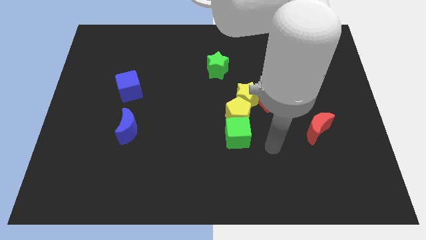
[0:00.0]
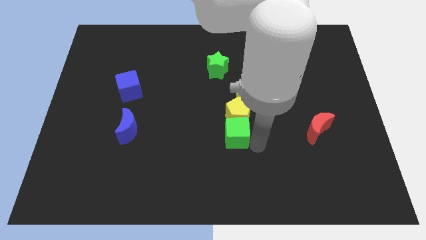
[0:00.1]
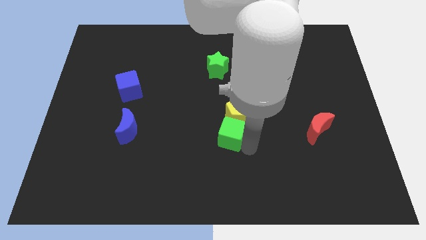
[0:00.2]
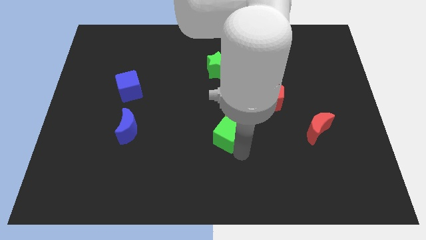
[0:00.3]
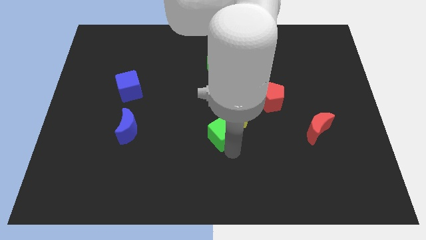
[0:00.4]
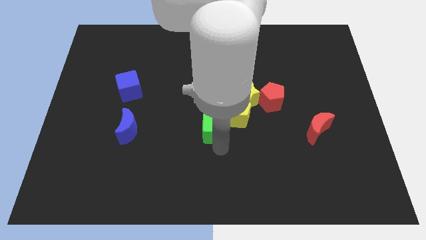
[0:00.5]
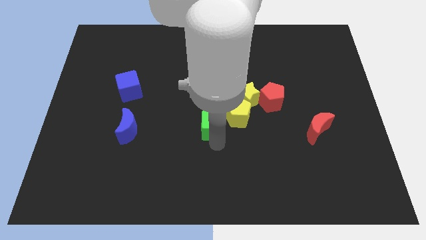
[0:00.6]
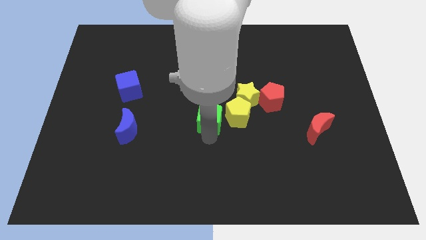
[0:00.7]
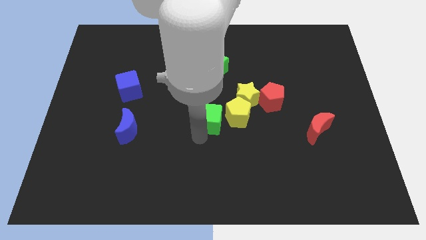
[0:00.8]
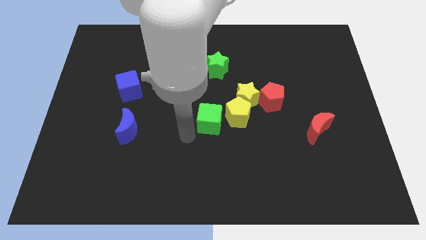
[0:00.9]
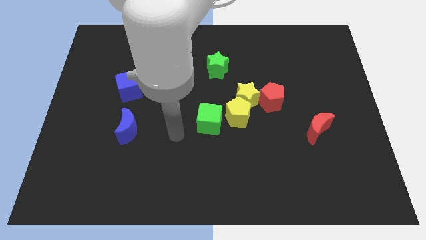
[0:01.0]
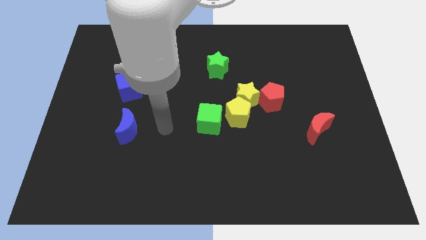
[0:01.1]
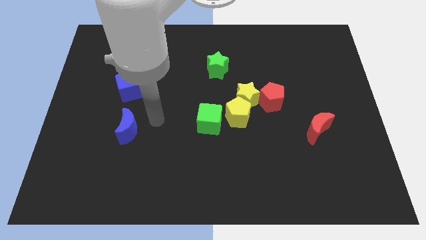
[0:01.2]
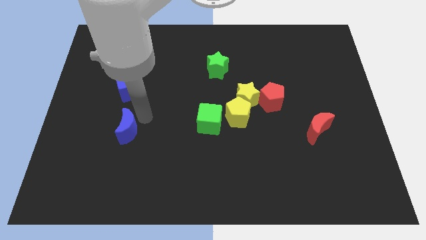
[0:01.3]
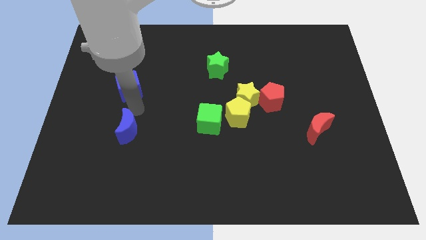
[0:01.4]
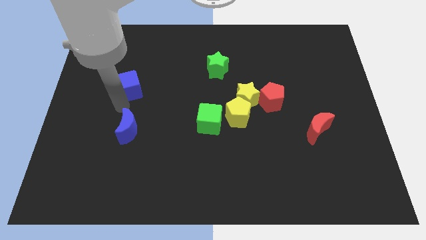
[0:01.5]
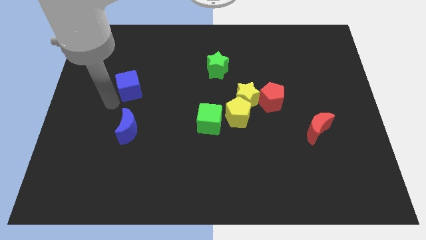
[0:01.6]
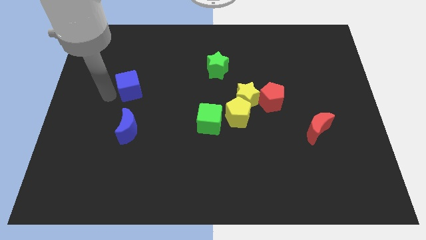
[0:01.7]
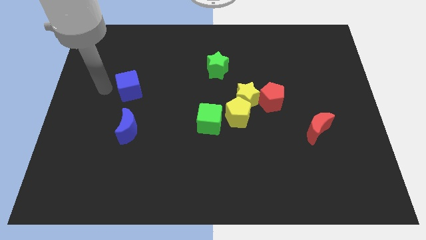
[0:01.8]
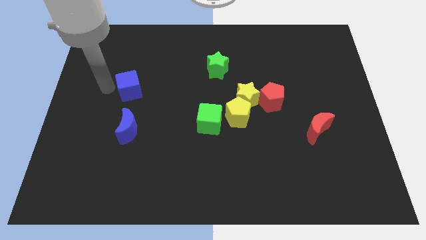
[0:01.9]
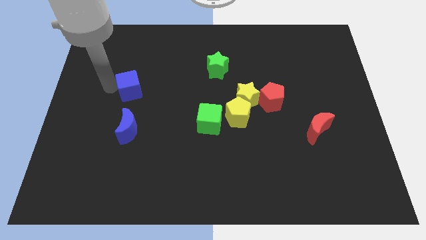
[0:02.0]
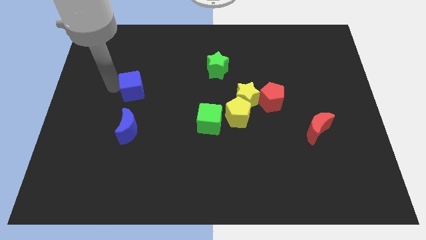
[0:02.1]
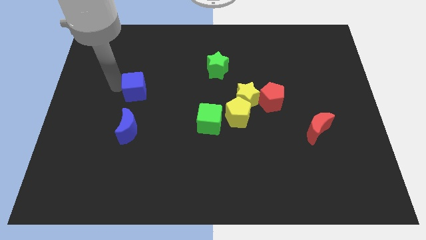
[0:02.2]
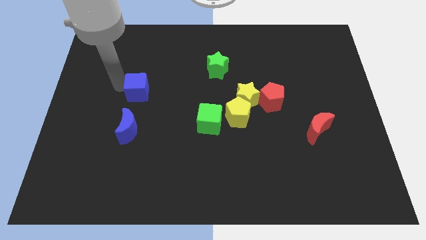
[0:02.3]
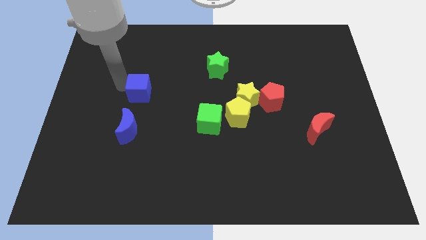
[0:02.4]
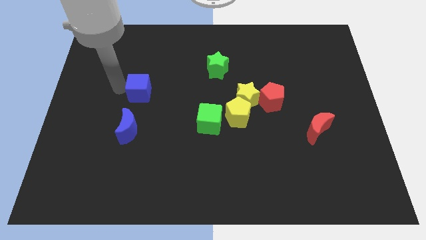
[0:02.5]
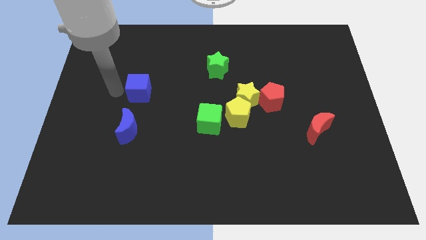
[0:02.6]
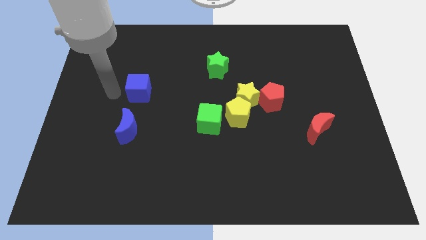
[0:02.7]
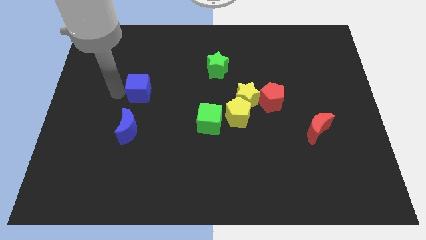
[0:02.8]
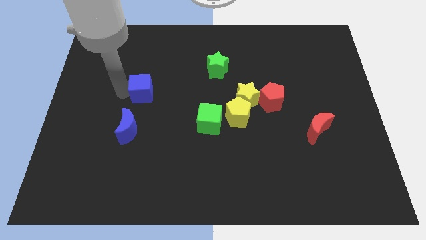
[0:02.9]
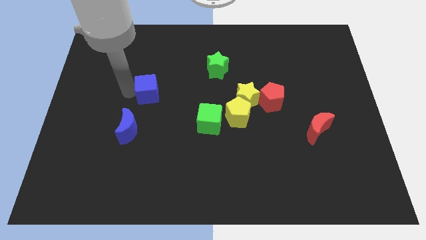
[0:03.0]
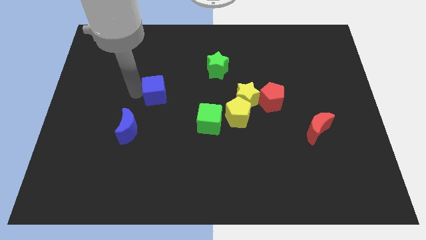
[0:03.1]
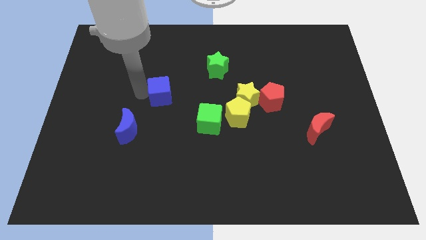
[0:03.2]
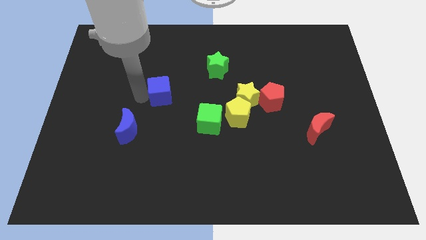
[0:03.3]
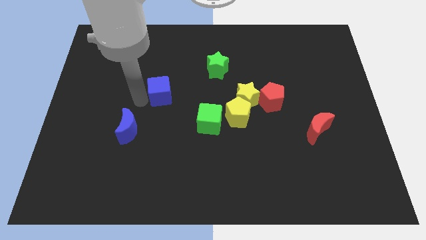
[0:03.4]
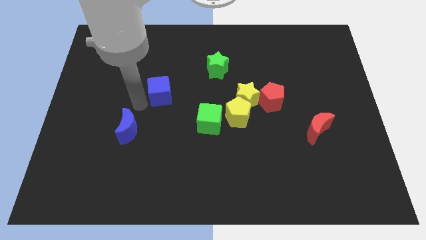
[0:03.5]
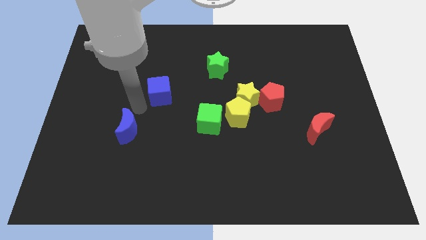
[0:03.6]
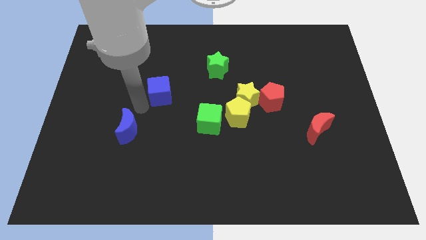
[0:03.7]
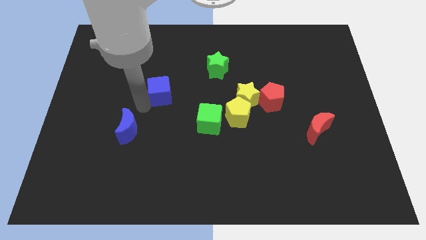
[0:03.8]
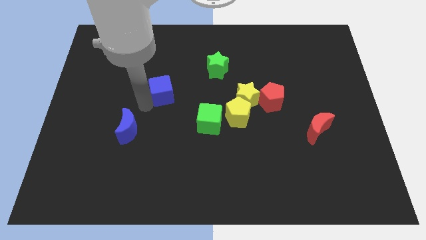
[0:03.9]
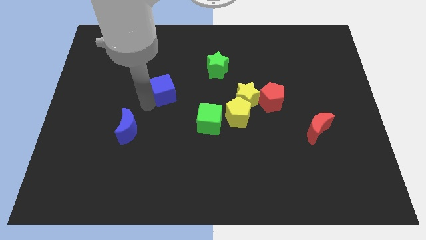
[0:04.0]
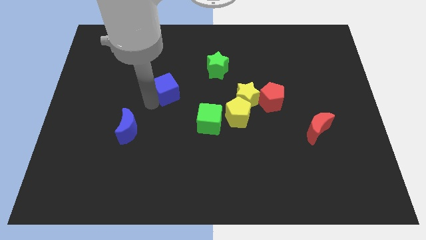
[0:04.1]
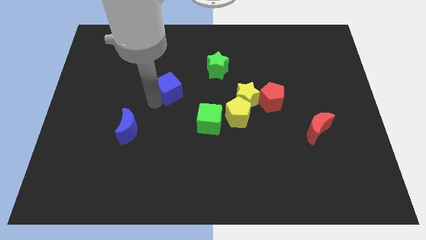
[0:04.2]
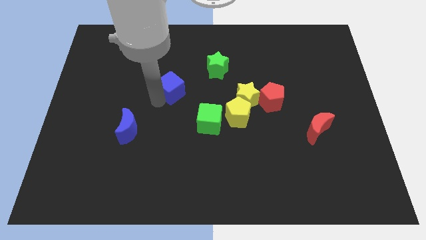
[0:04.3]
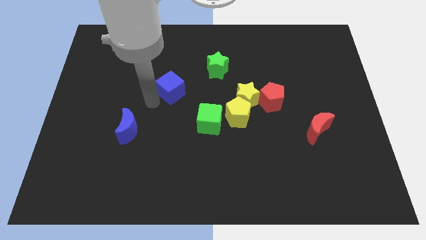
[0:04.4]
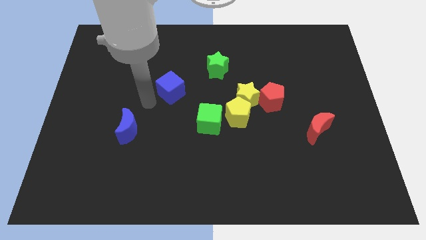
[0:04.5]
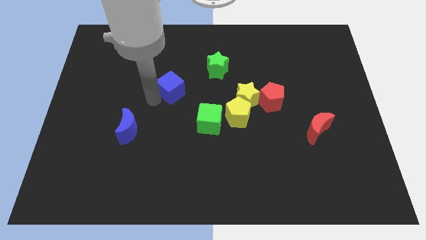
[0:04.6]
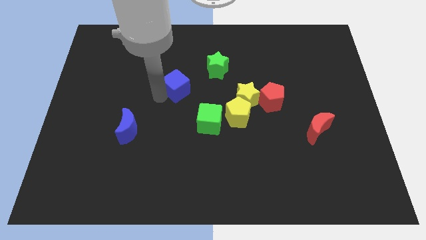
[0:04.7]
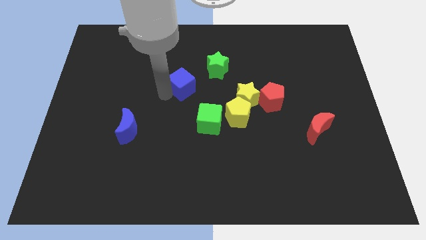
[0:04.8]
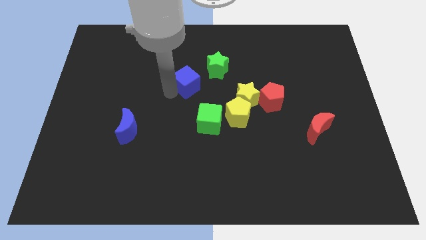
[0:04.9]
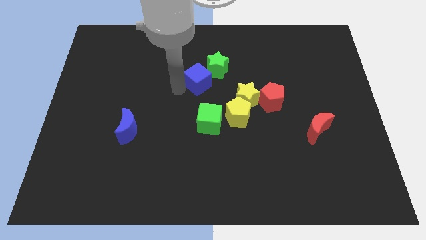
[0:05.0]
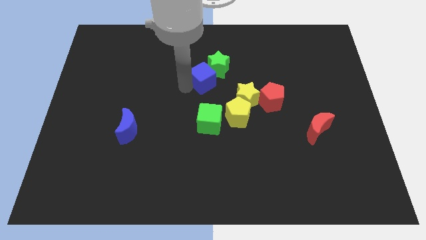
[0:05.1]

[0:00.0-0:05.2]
put the blue cube towards the green star

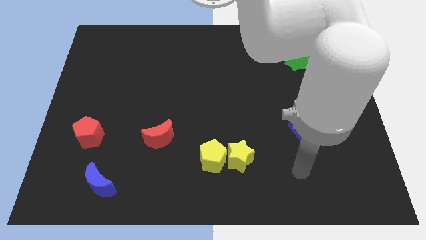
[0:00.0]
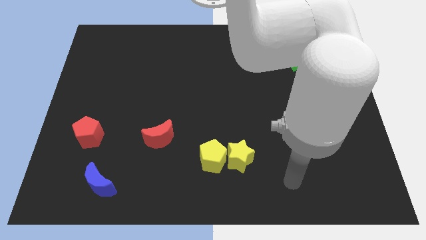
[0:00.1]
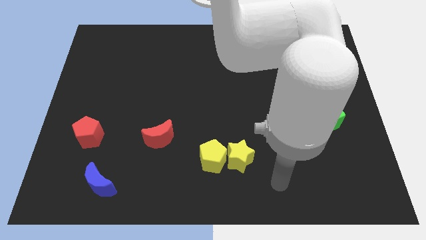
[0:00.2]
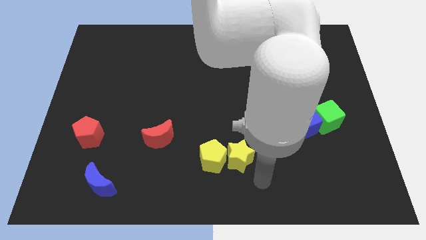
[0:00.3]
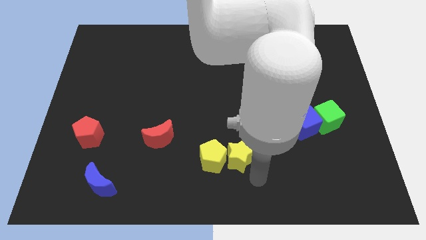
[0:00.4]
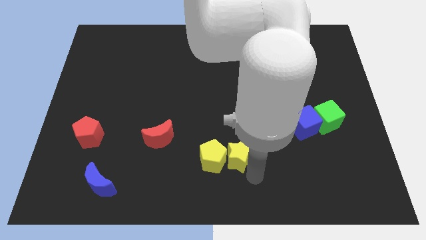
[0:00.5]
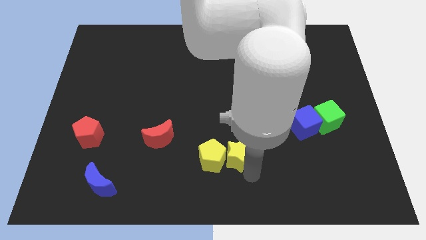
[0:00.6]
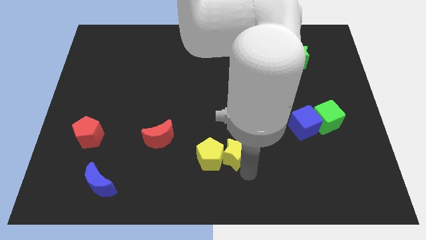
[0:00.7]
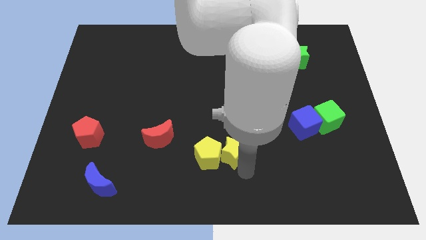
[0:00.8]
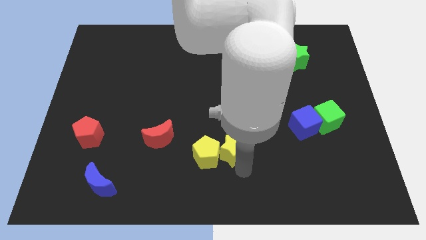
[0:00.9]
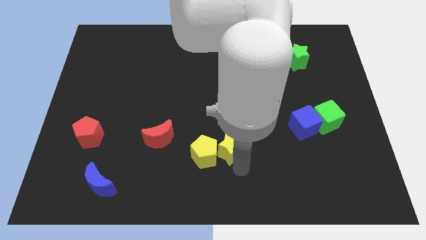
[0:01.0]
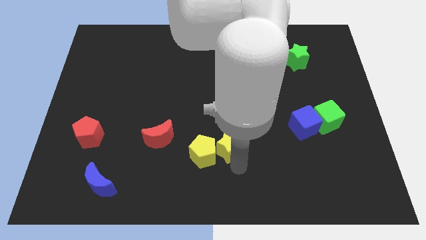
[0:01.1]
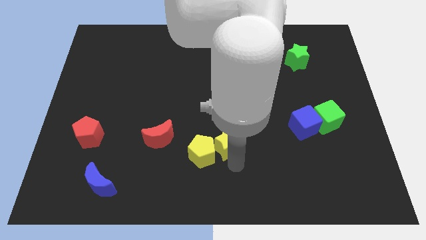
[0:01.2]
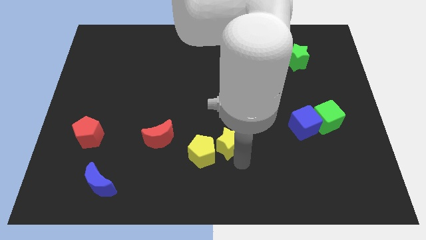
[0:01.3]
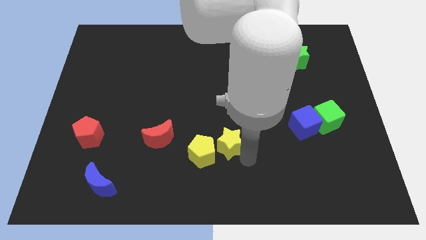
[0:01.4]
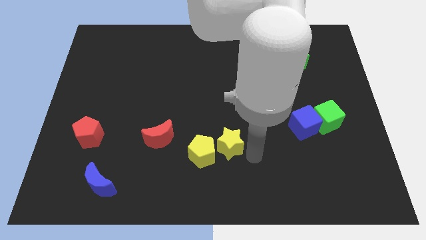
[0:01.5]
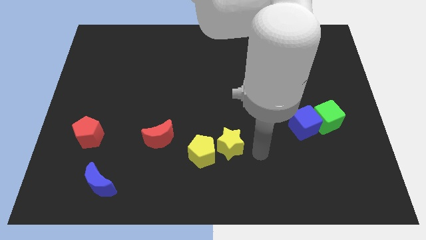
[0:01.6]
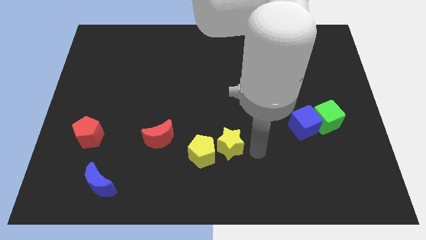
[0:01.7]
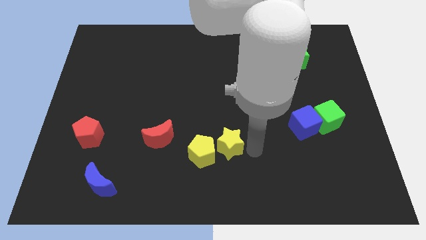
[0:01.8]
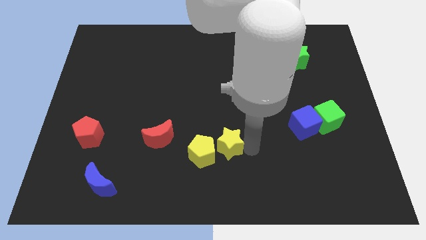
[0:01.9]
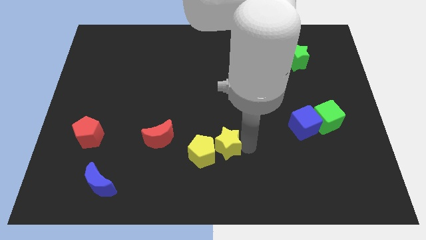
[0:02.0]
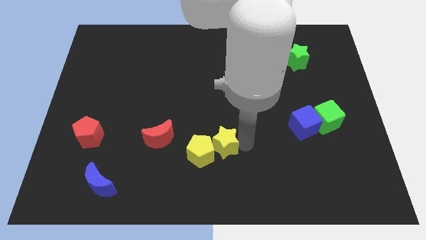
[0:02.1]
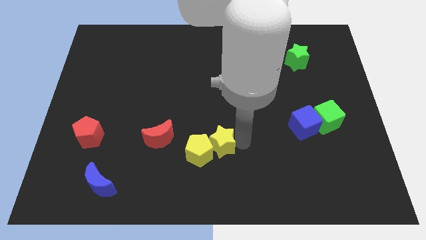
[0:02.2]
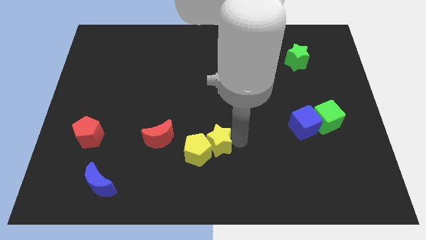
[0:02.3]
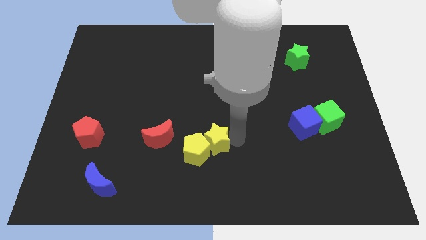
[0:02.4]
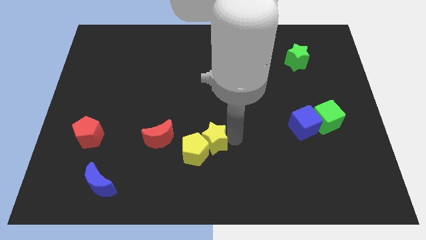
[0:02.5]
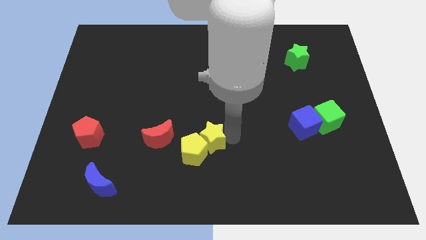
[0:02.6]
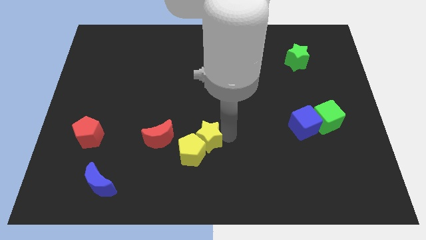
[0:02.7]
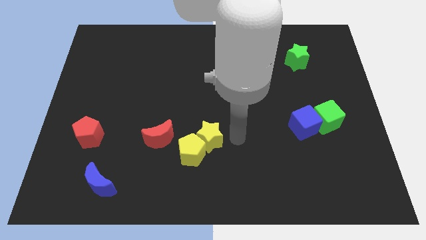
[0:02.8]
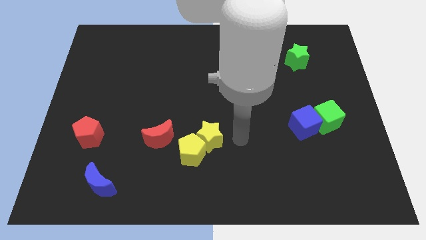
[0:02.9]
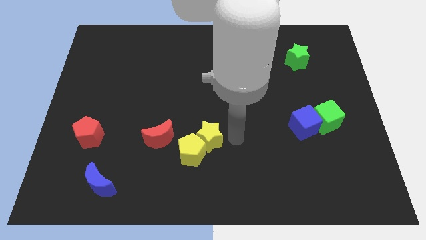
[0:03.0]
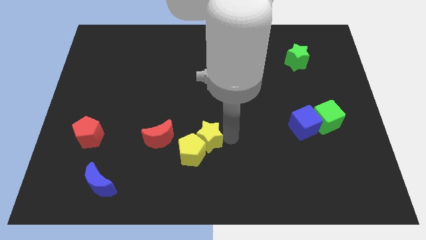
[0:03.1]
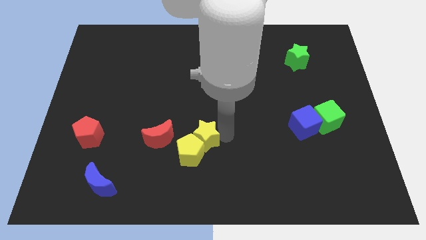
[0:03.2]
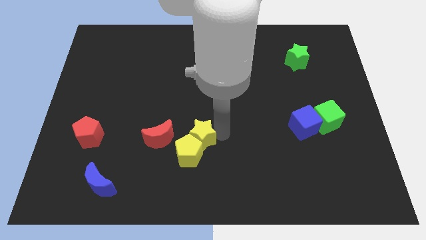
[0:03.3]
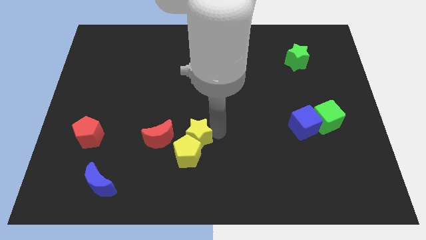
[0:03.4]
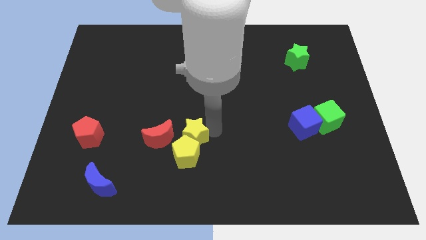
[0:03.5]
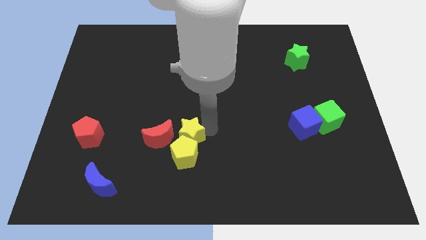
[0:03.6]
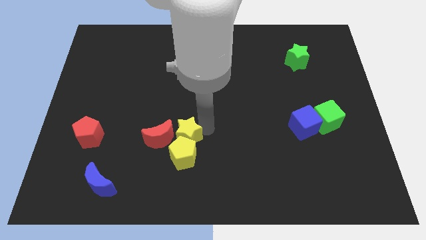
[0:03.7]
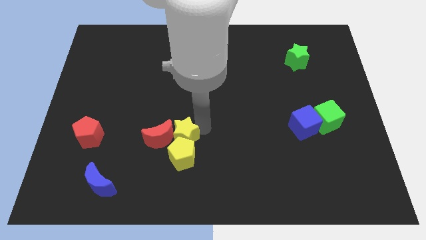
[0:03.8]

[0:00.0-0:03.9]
push the yellow star close to the red moon
